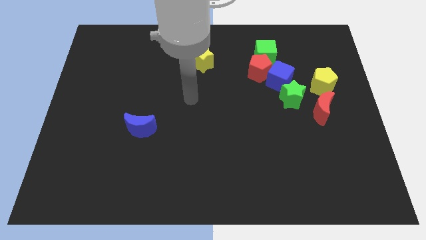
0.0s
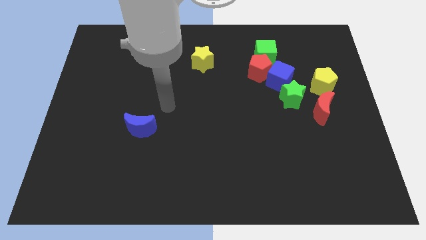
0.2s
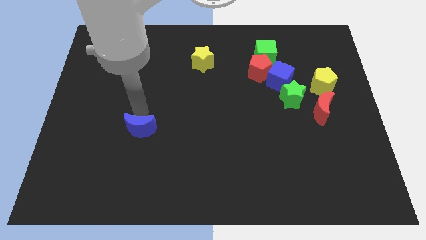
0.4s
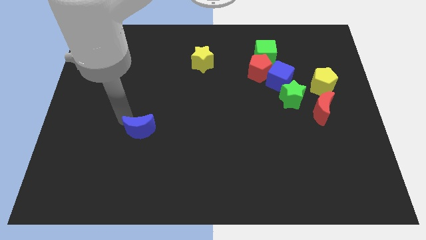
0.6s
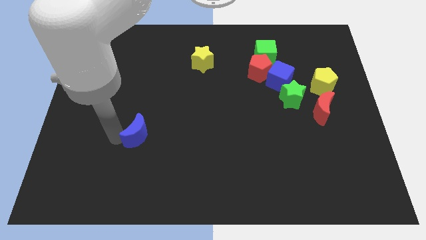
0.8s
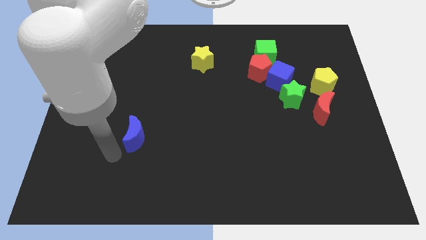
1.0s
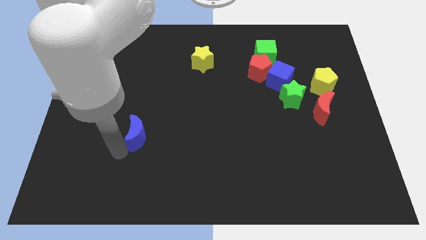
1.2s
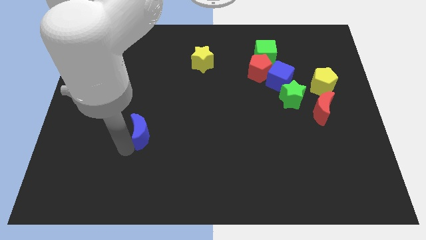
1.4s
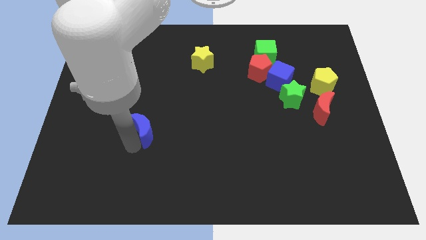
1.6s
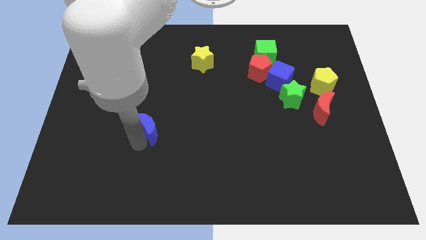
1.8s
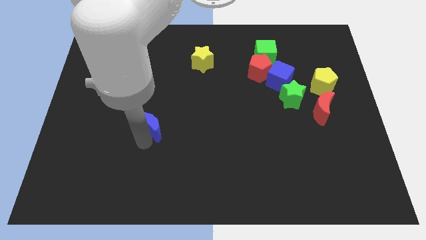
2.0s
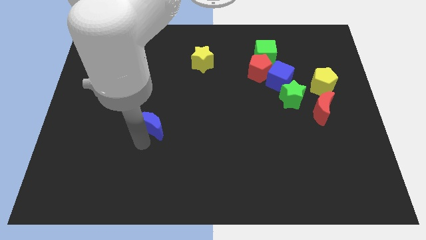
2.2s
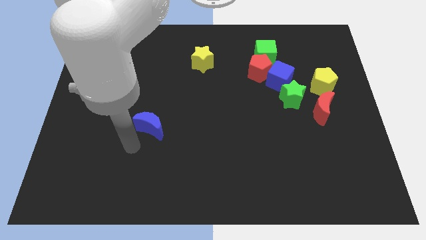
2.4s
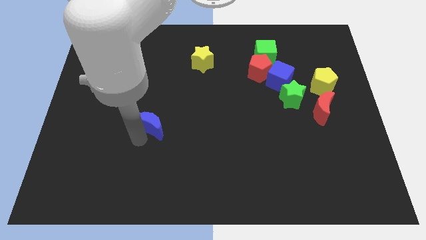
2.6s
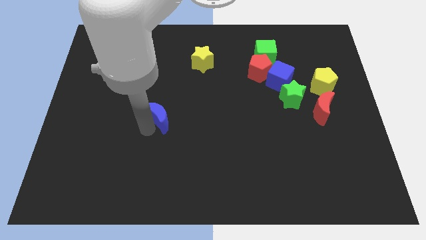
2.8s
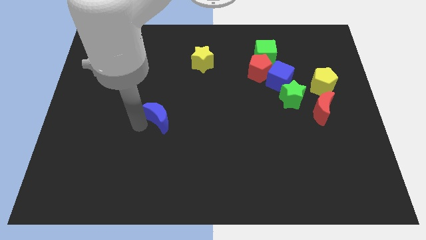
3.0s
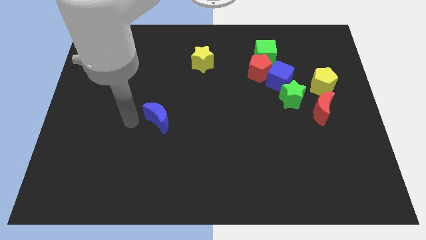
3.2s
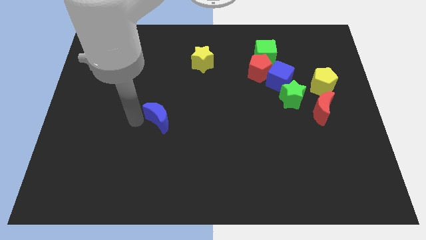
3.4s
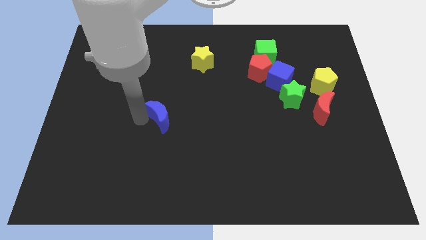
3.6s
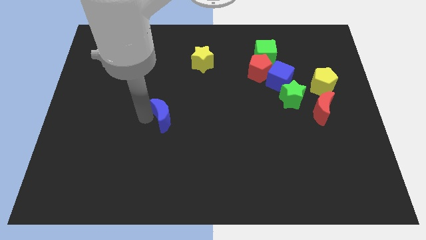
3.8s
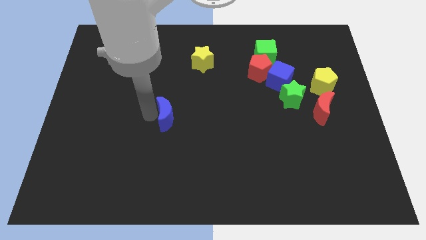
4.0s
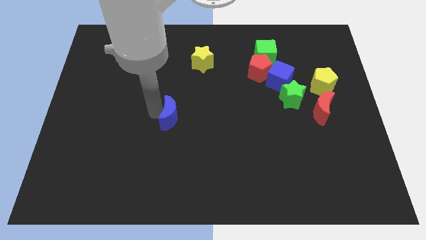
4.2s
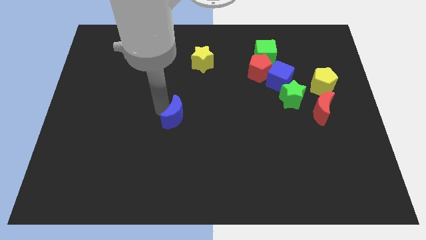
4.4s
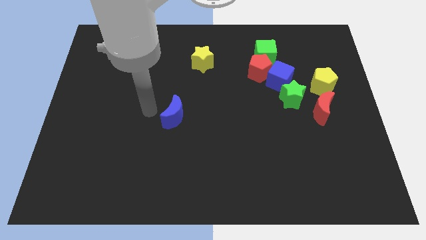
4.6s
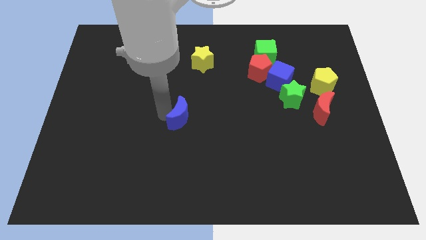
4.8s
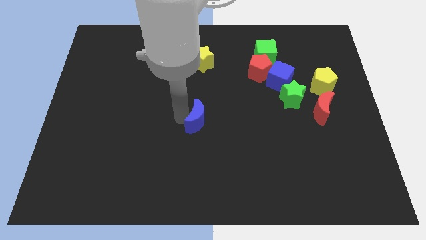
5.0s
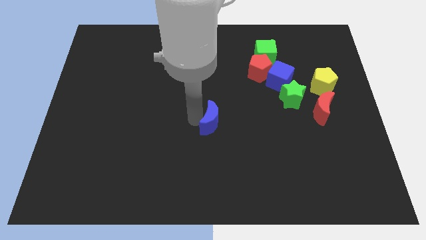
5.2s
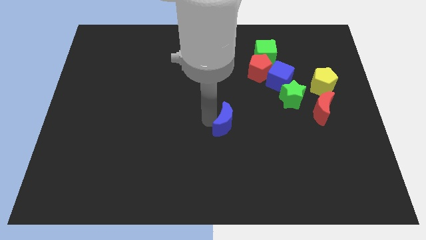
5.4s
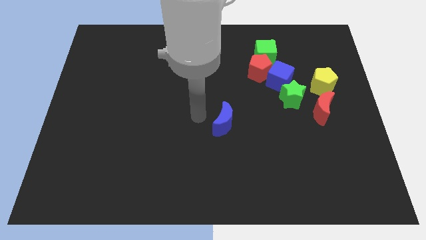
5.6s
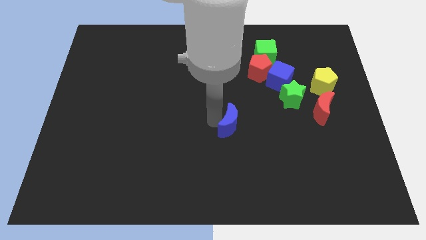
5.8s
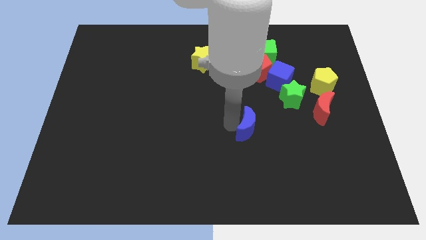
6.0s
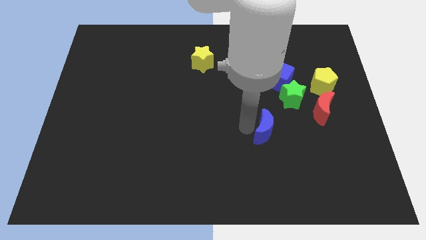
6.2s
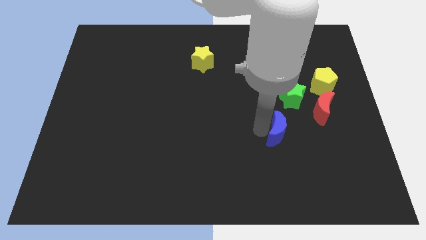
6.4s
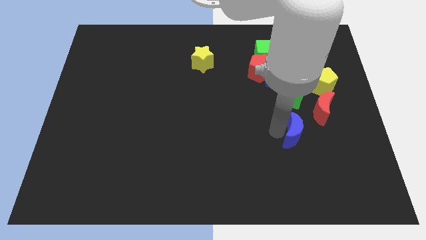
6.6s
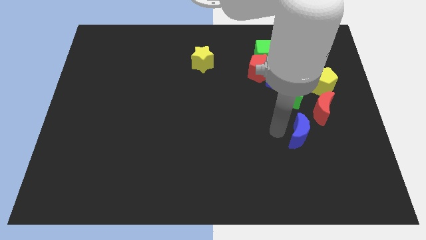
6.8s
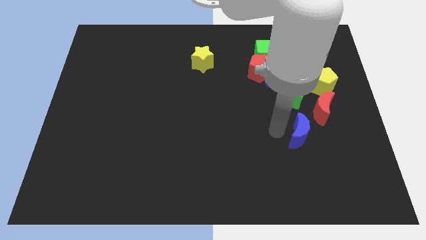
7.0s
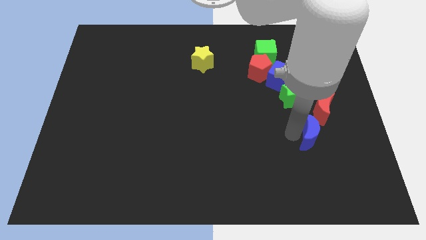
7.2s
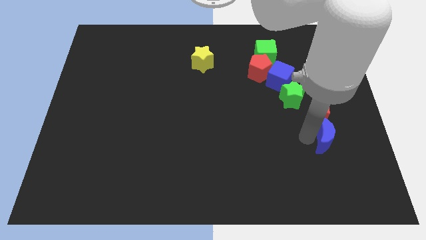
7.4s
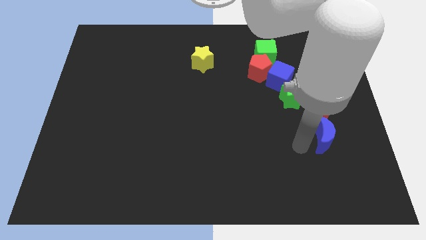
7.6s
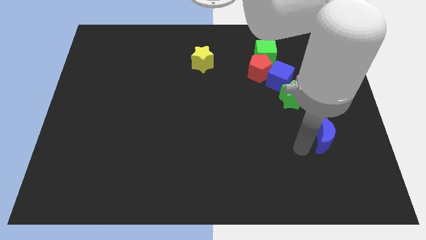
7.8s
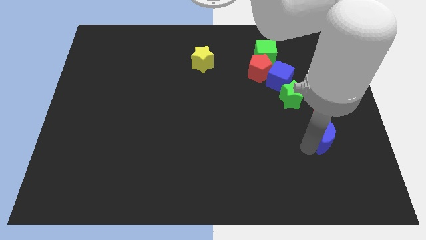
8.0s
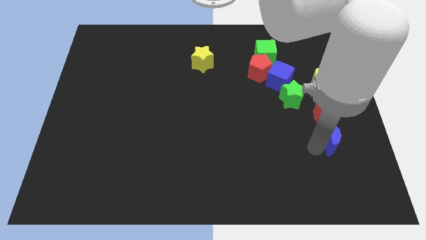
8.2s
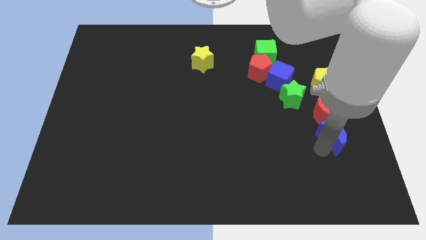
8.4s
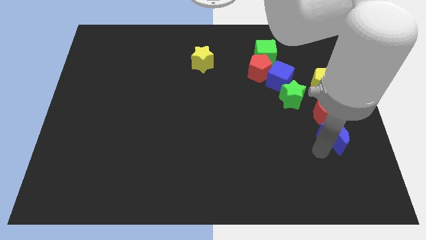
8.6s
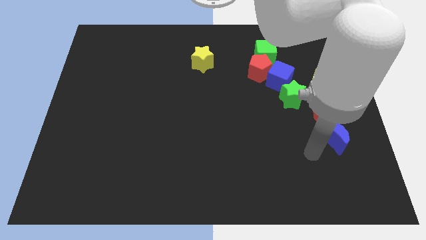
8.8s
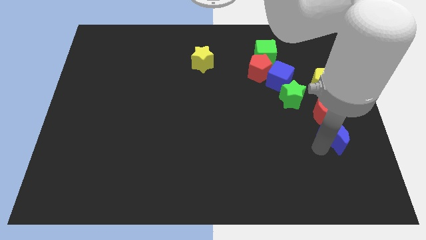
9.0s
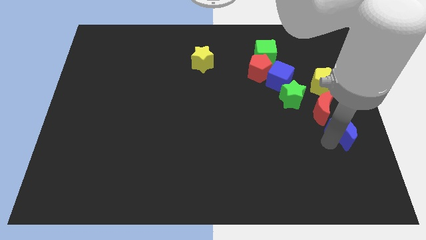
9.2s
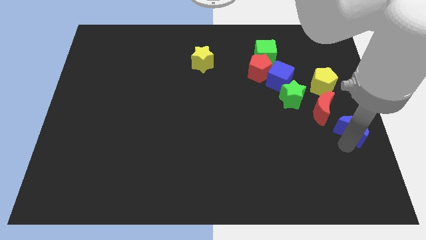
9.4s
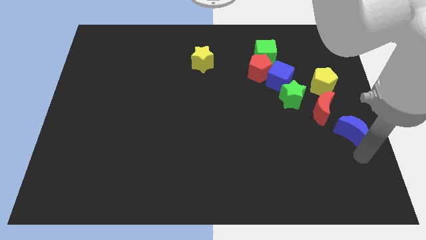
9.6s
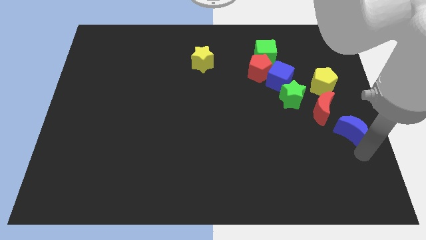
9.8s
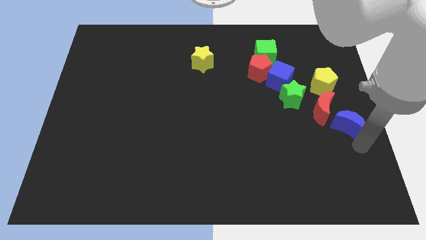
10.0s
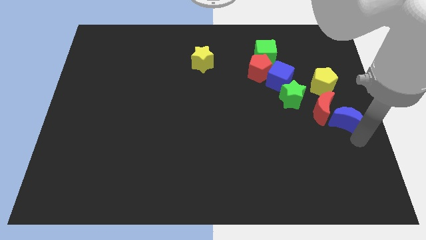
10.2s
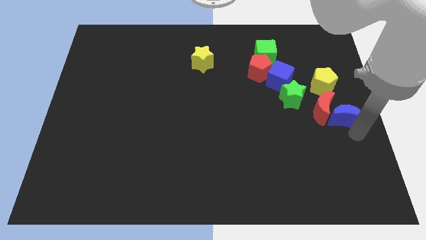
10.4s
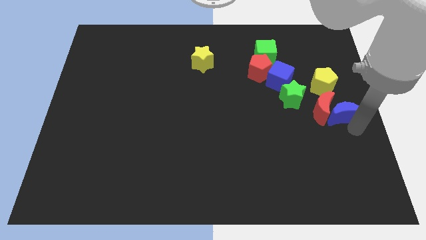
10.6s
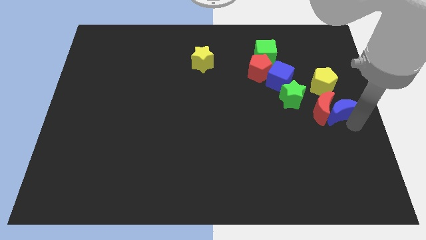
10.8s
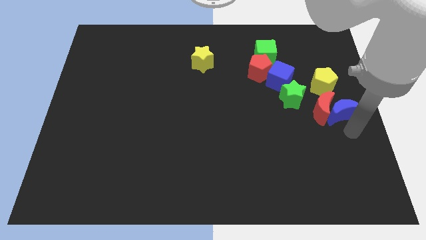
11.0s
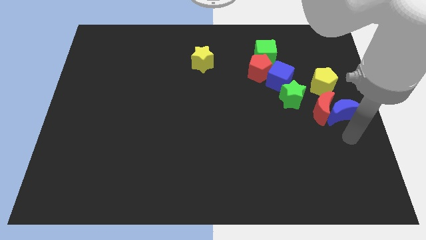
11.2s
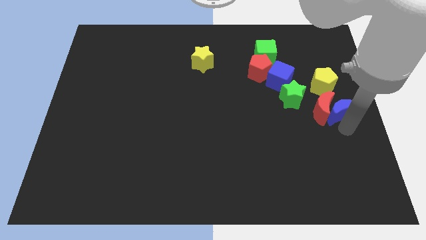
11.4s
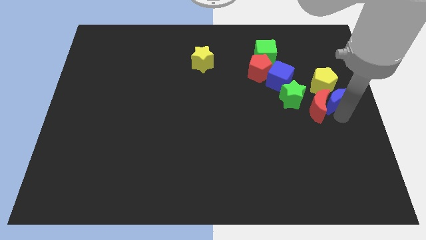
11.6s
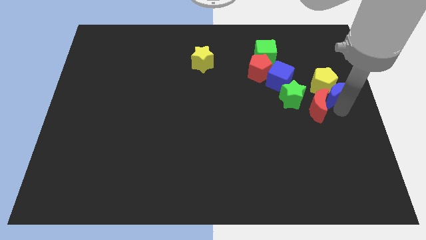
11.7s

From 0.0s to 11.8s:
put the blue moon to the yellow pentagon

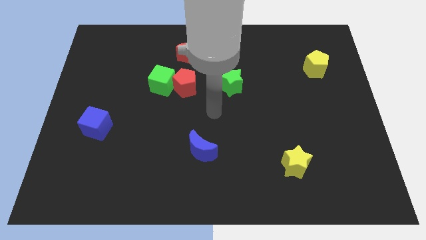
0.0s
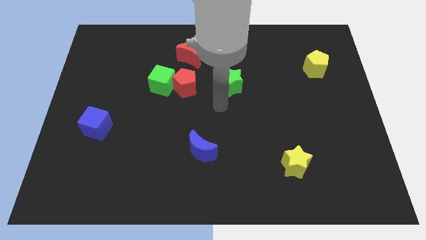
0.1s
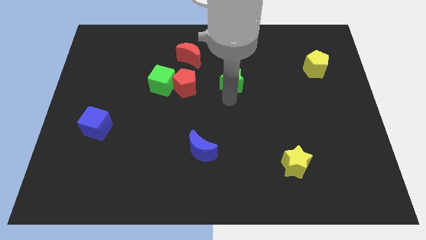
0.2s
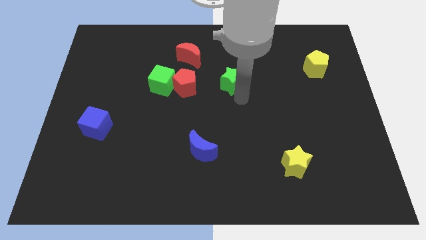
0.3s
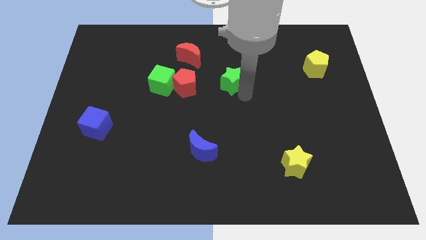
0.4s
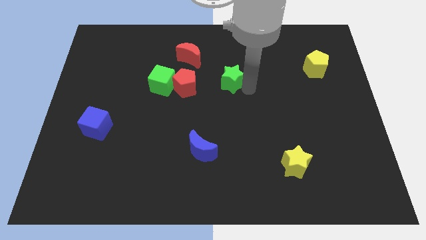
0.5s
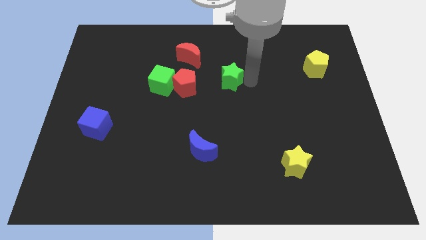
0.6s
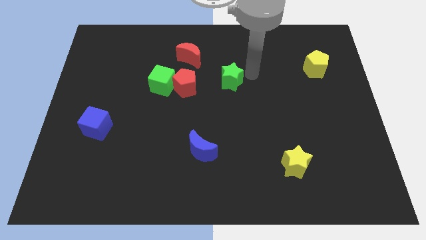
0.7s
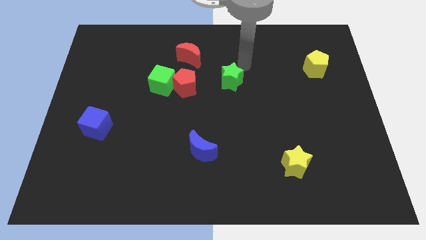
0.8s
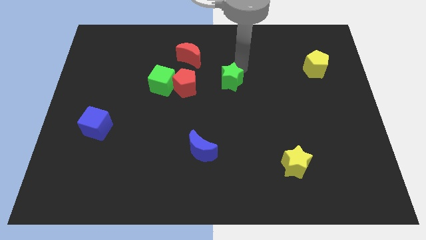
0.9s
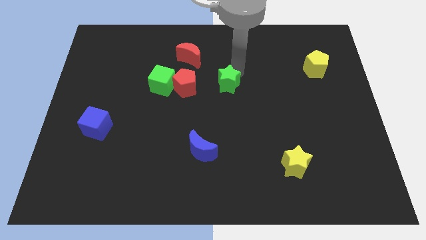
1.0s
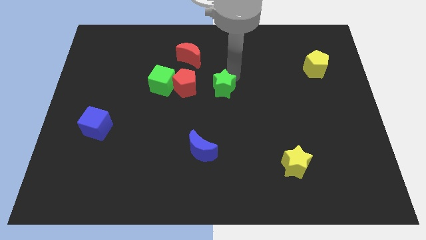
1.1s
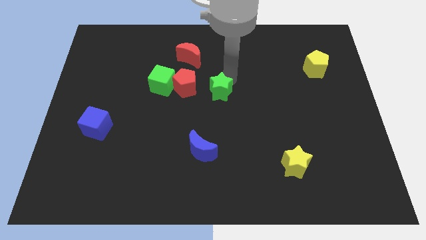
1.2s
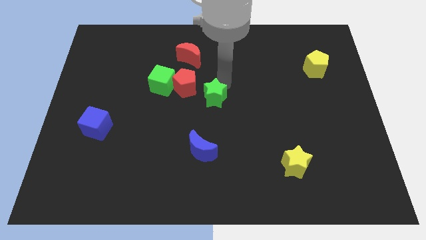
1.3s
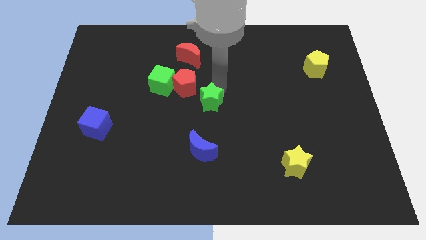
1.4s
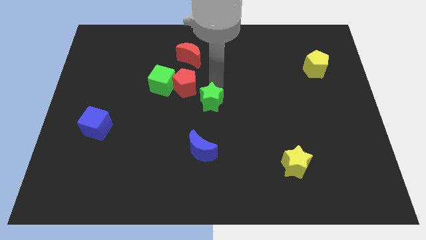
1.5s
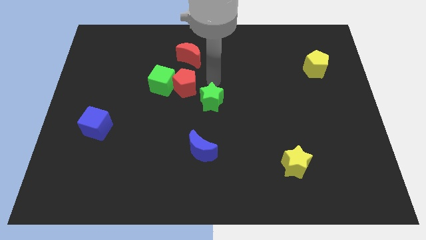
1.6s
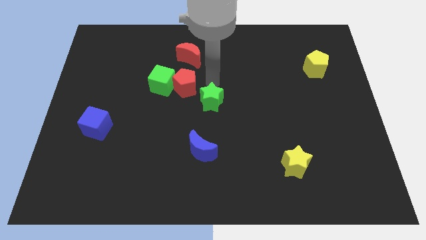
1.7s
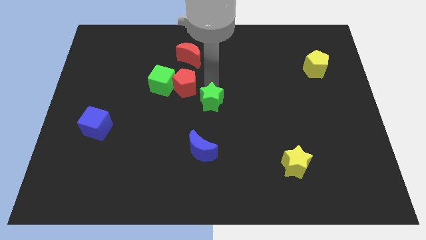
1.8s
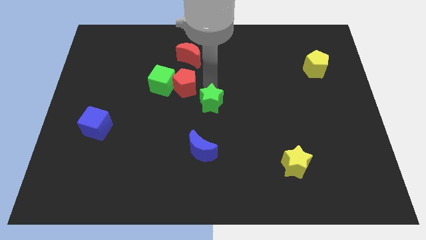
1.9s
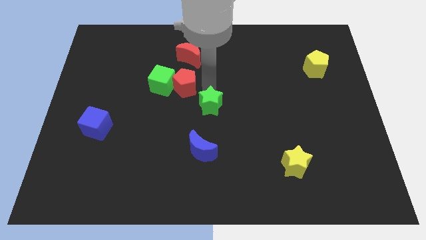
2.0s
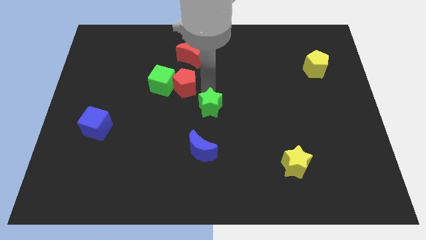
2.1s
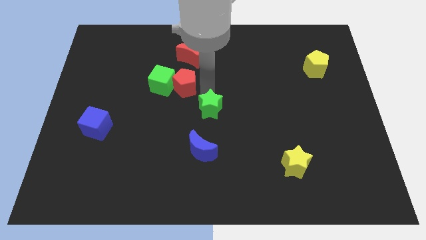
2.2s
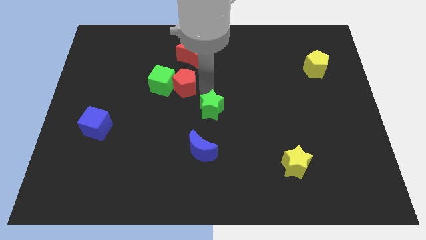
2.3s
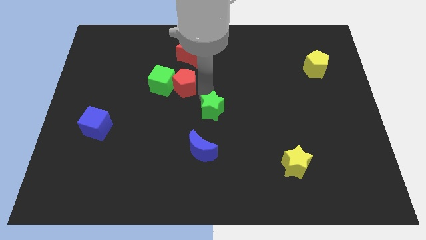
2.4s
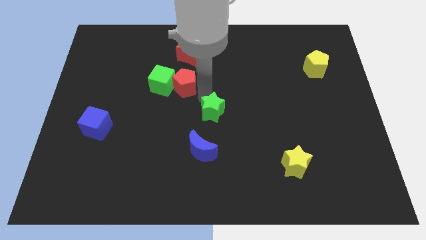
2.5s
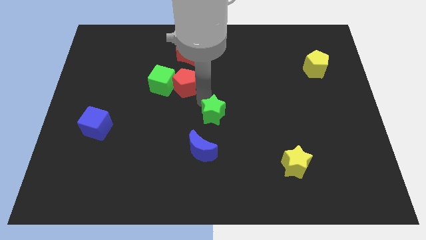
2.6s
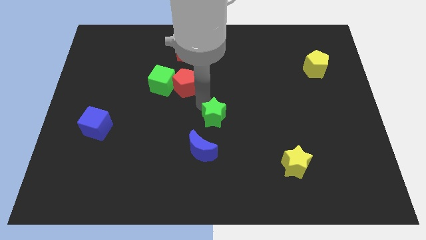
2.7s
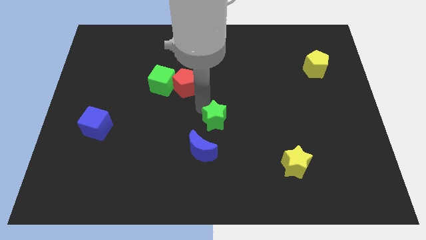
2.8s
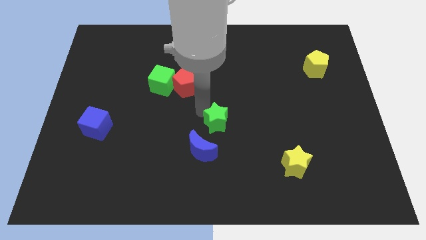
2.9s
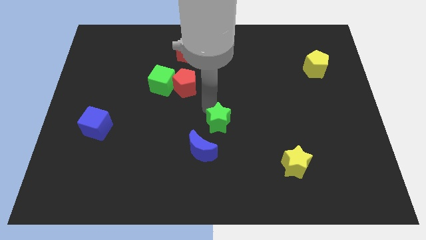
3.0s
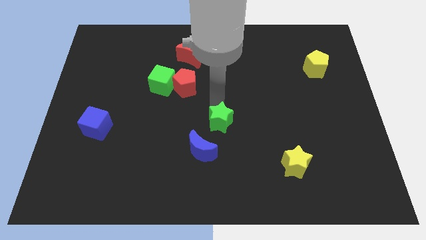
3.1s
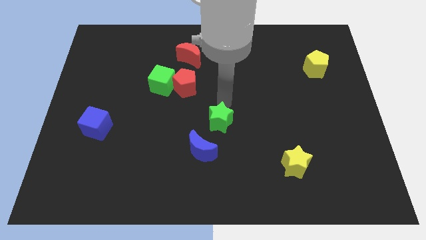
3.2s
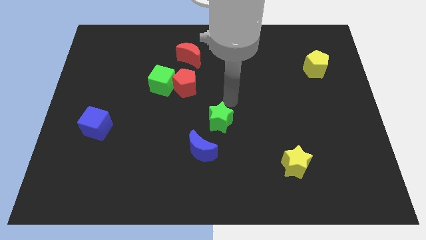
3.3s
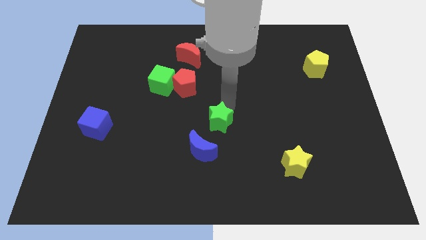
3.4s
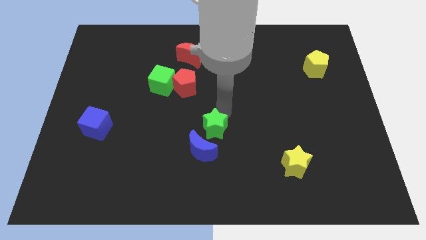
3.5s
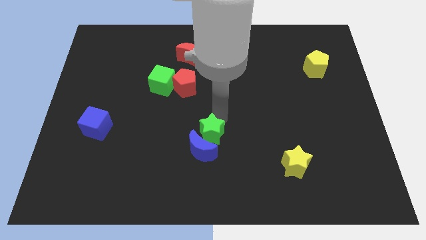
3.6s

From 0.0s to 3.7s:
move the green star to the blue moon
